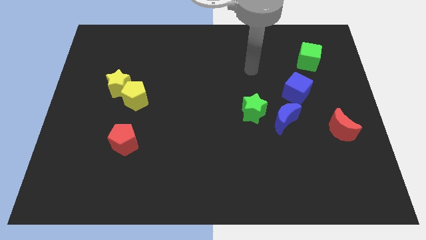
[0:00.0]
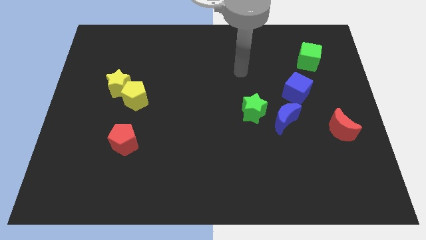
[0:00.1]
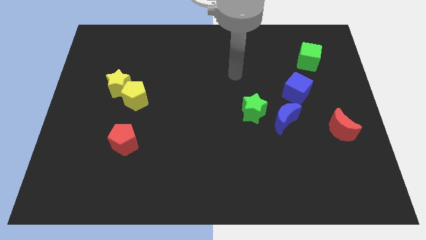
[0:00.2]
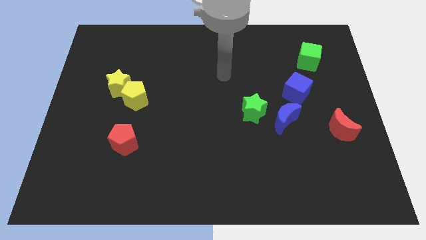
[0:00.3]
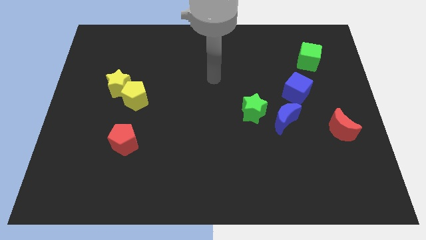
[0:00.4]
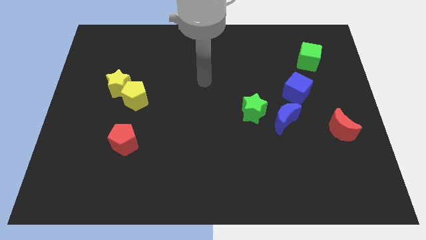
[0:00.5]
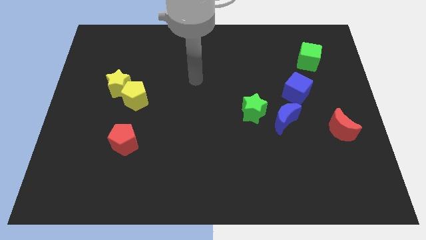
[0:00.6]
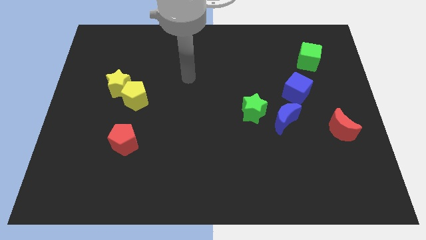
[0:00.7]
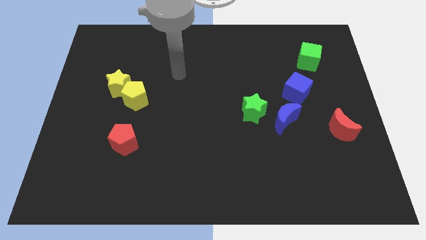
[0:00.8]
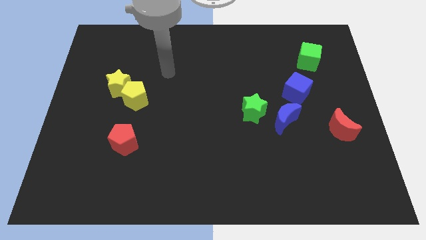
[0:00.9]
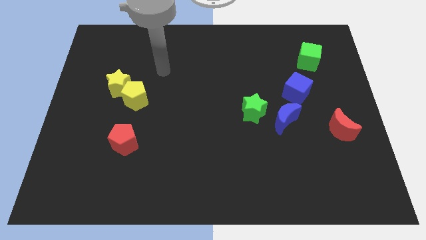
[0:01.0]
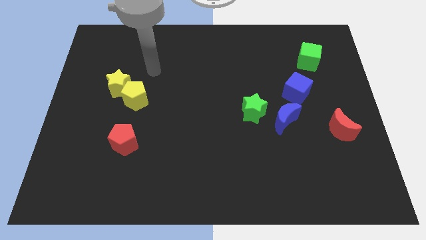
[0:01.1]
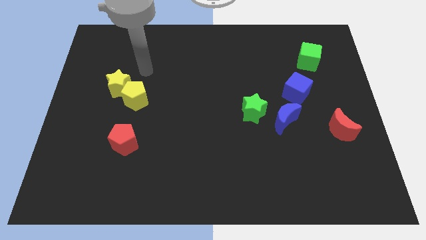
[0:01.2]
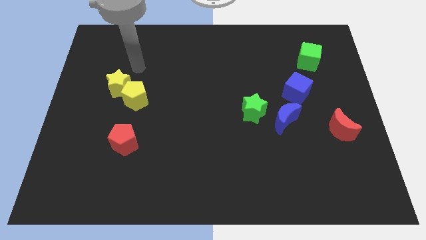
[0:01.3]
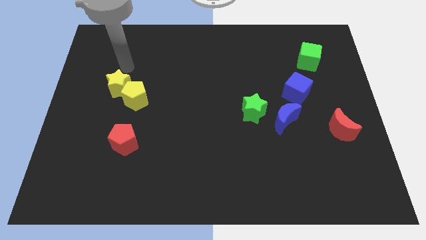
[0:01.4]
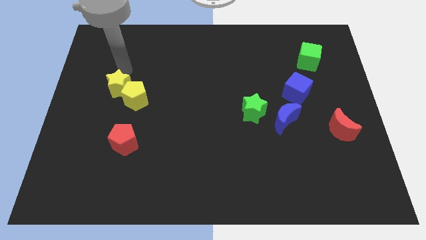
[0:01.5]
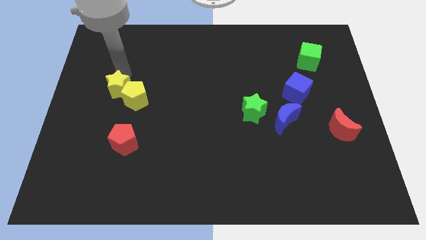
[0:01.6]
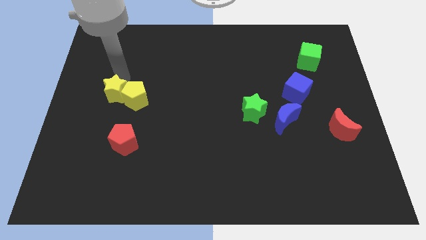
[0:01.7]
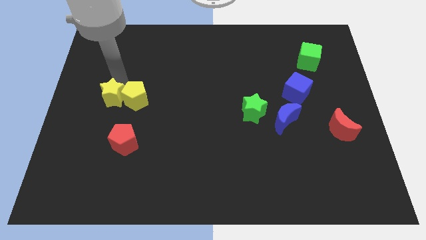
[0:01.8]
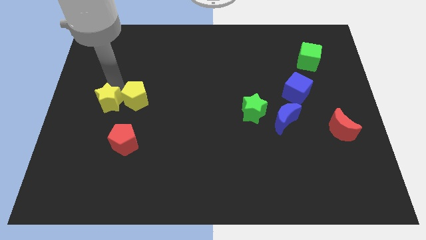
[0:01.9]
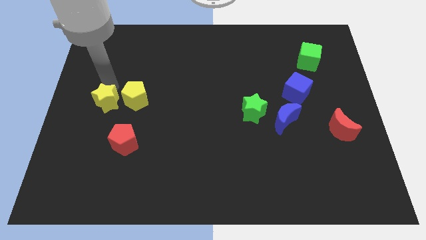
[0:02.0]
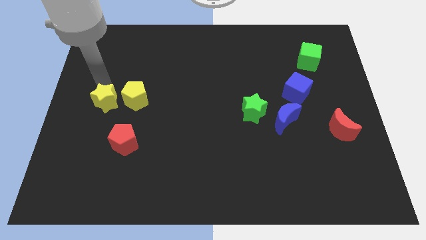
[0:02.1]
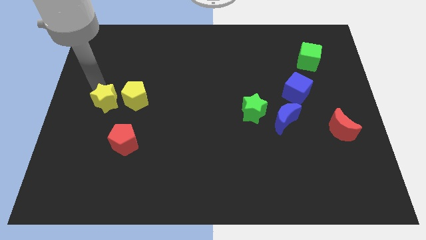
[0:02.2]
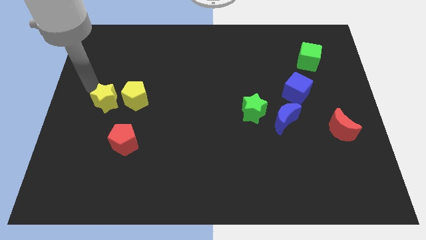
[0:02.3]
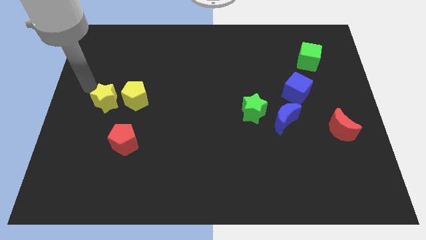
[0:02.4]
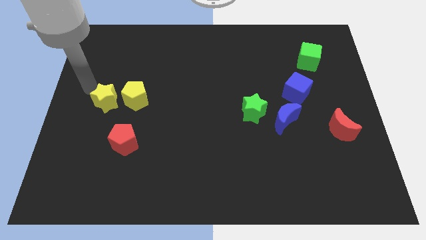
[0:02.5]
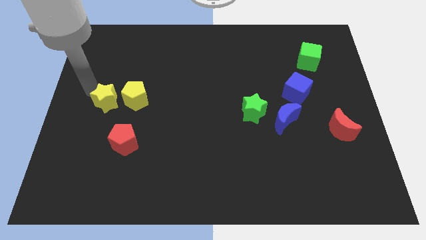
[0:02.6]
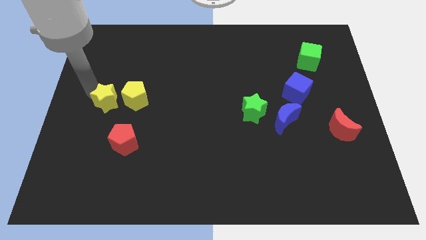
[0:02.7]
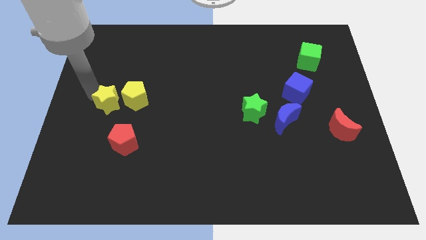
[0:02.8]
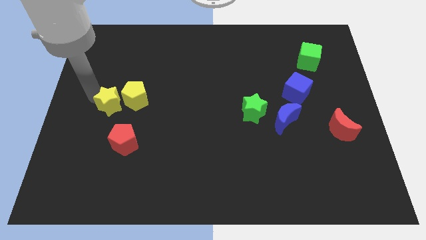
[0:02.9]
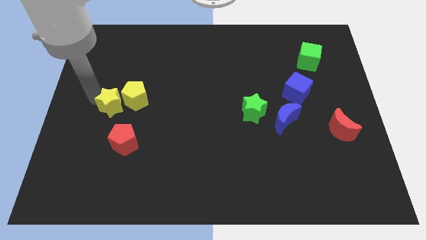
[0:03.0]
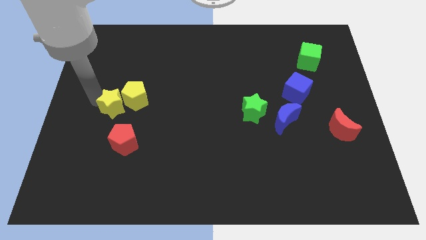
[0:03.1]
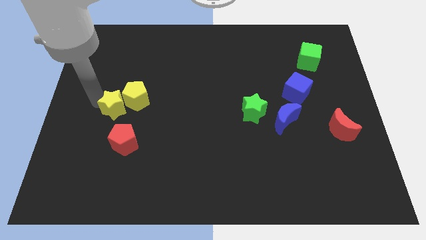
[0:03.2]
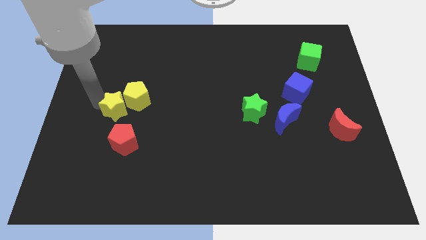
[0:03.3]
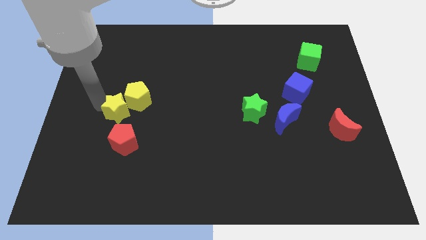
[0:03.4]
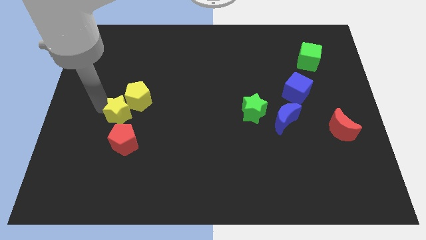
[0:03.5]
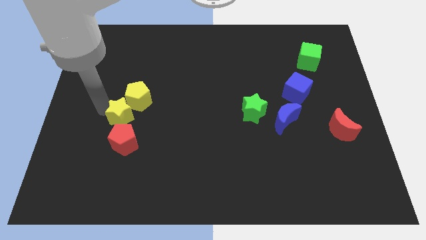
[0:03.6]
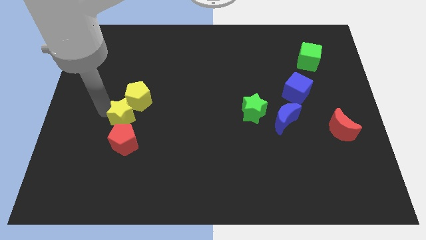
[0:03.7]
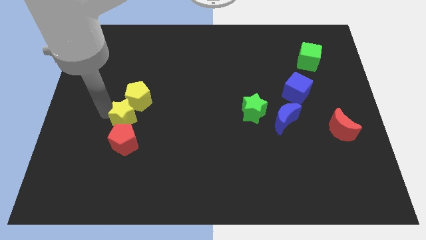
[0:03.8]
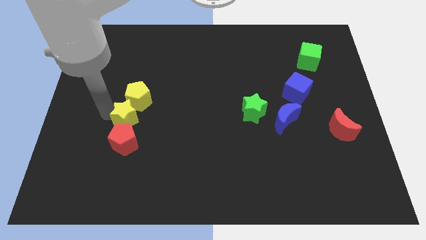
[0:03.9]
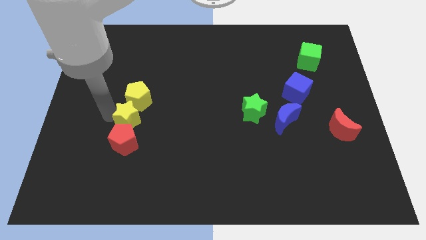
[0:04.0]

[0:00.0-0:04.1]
move the yellow star next to the red pentagon

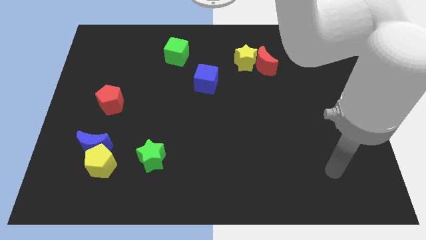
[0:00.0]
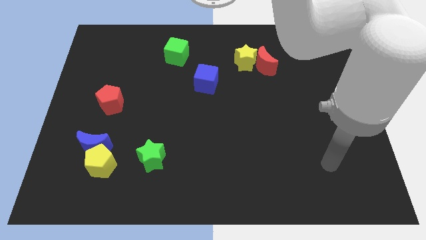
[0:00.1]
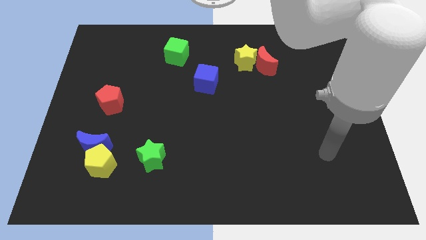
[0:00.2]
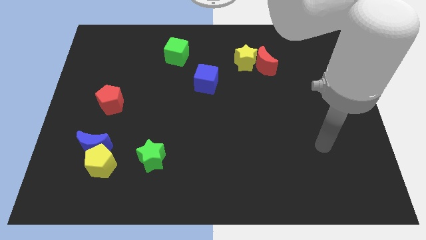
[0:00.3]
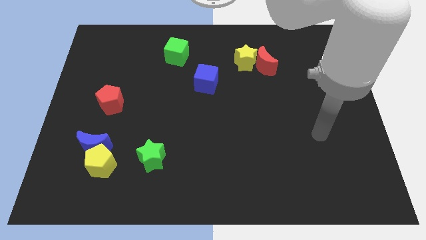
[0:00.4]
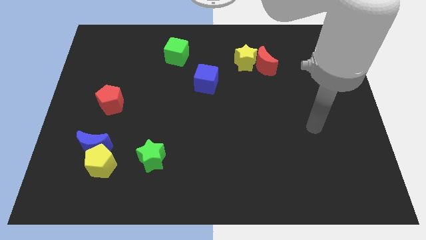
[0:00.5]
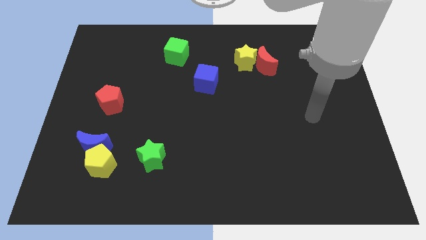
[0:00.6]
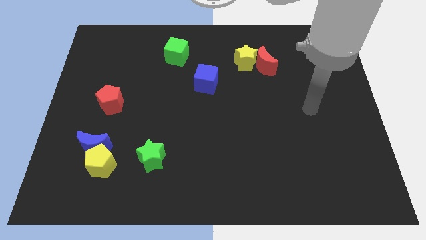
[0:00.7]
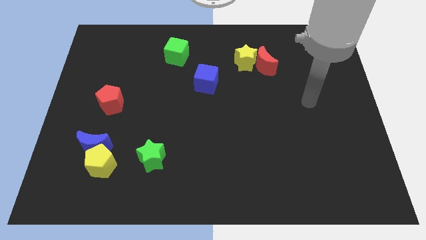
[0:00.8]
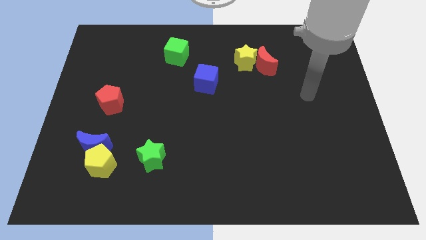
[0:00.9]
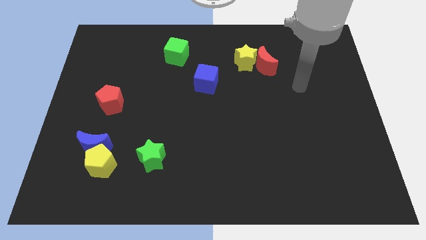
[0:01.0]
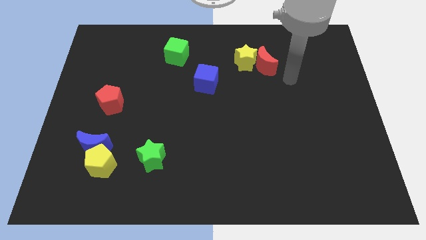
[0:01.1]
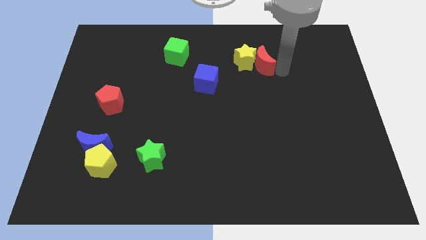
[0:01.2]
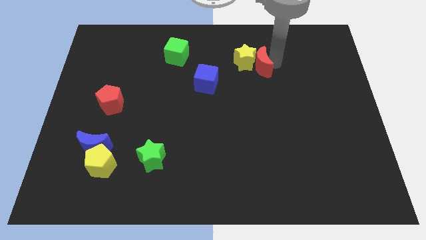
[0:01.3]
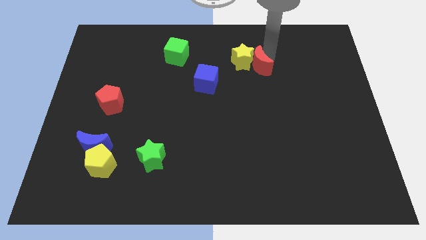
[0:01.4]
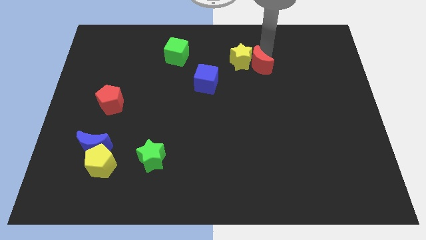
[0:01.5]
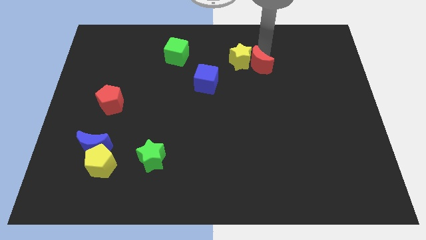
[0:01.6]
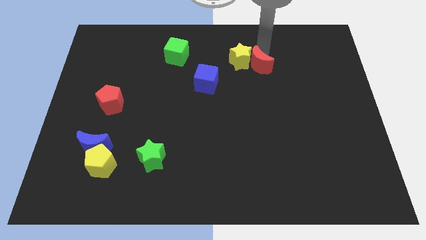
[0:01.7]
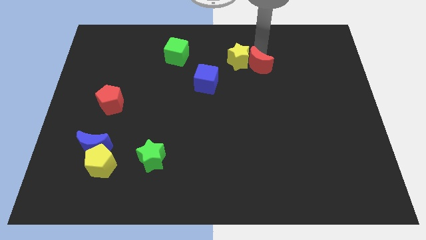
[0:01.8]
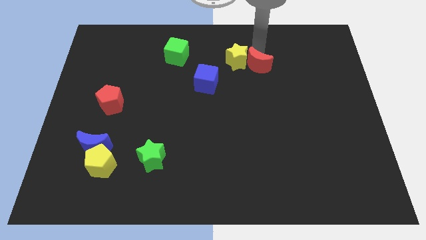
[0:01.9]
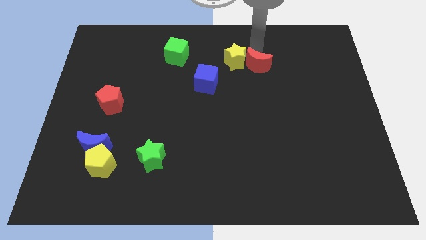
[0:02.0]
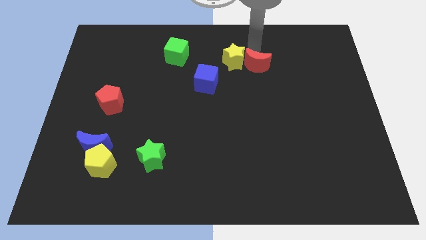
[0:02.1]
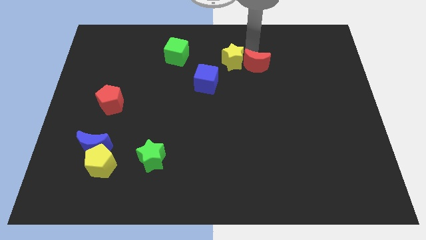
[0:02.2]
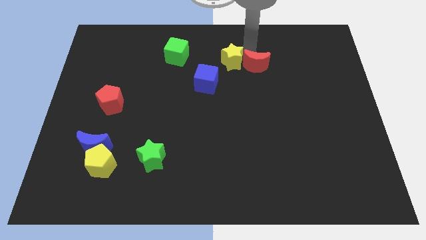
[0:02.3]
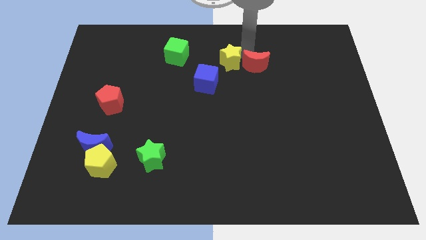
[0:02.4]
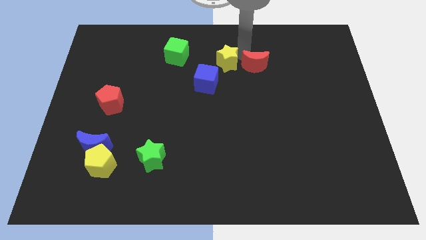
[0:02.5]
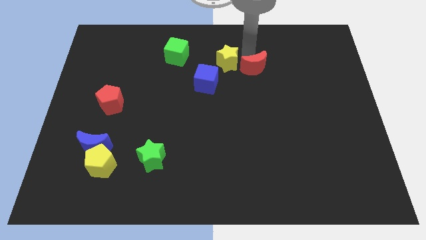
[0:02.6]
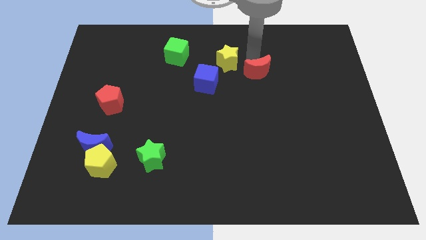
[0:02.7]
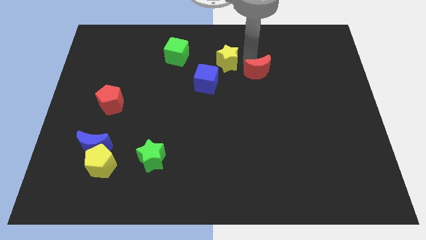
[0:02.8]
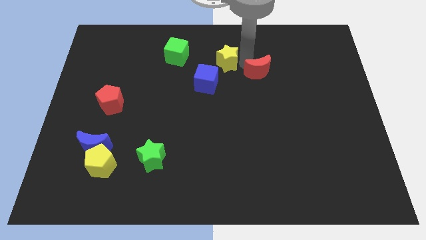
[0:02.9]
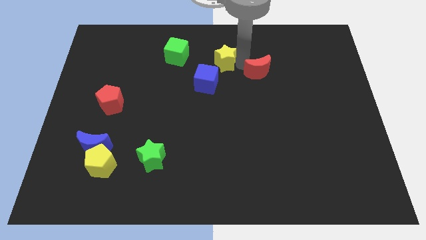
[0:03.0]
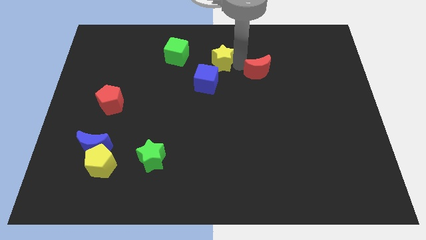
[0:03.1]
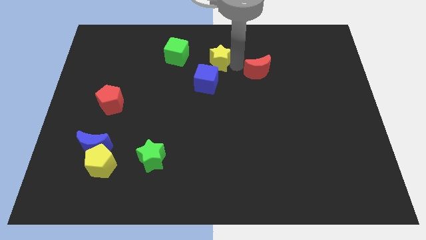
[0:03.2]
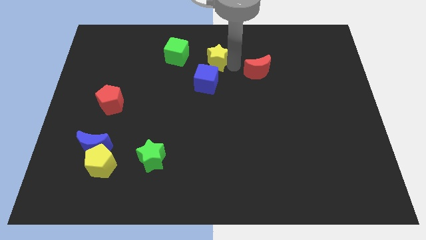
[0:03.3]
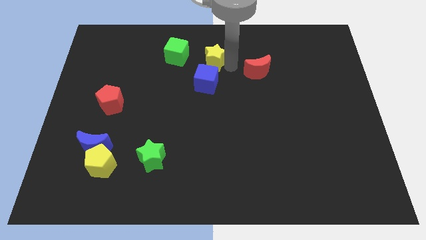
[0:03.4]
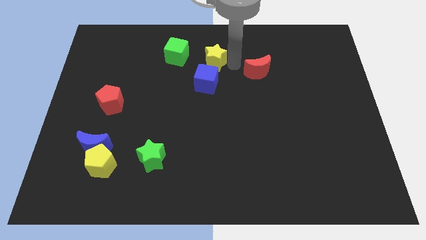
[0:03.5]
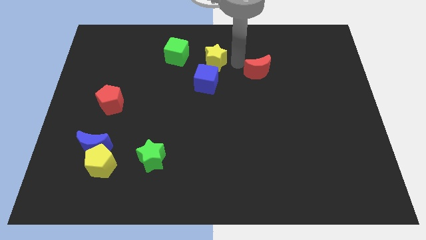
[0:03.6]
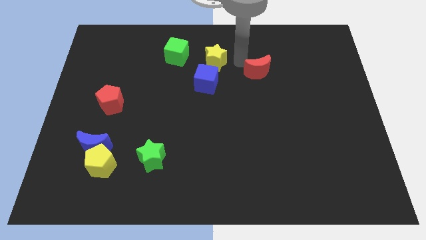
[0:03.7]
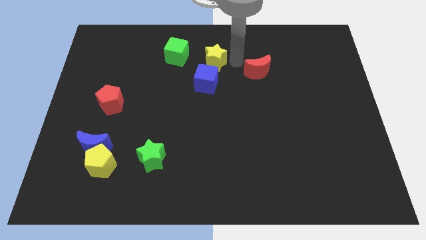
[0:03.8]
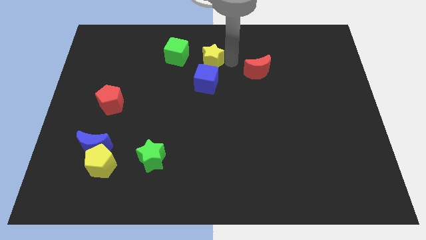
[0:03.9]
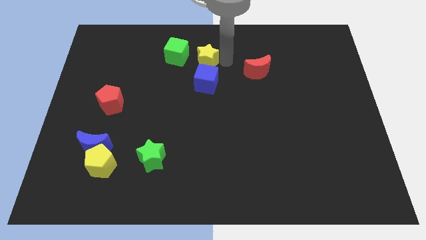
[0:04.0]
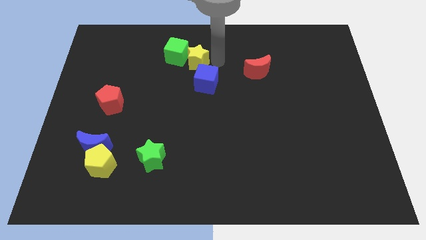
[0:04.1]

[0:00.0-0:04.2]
move the yellow star towards the green cube
